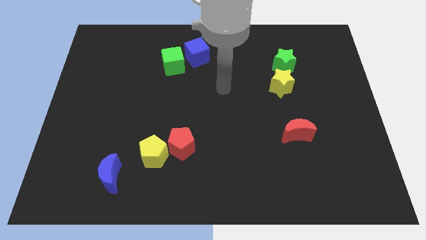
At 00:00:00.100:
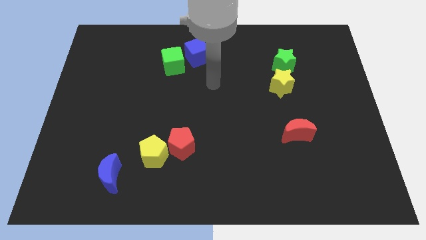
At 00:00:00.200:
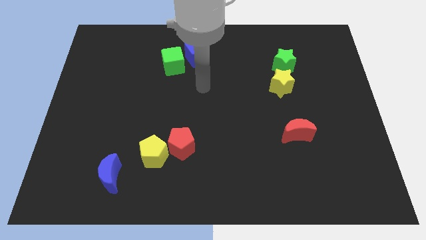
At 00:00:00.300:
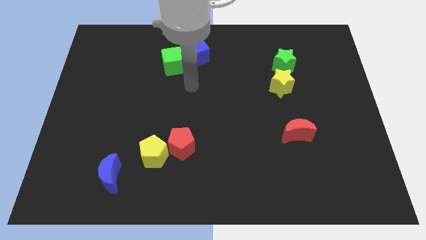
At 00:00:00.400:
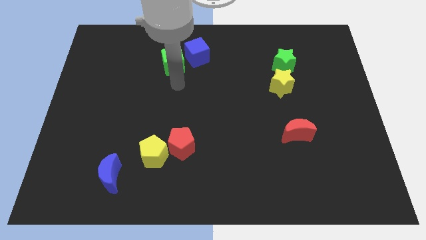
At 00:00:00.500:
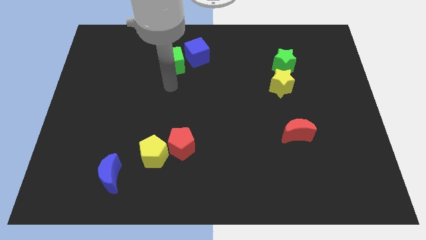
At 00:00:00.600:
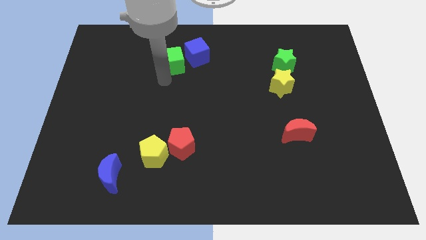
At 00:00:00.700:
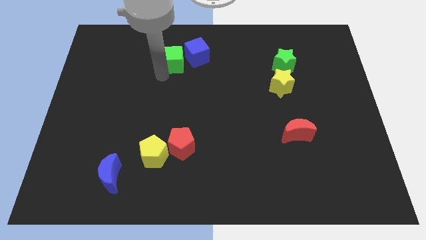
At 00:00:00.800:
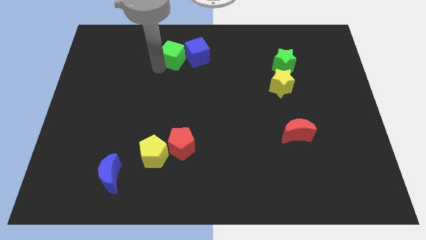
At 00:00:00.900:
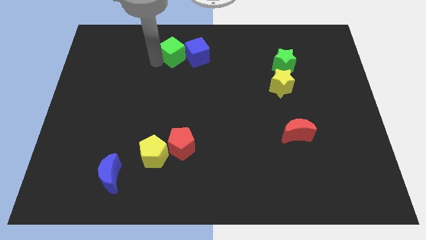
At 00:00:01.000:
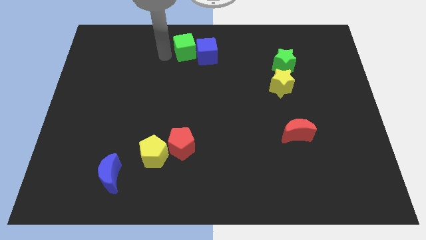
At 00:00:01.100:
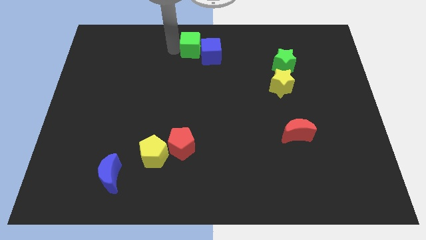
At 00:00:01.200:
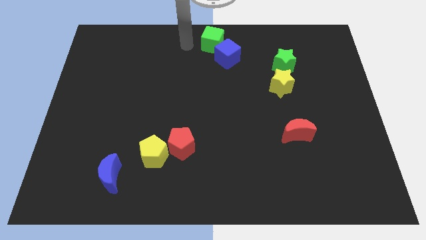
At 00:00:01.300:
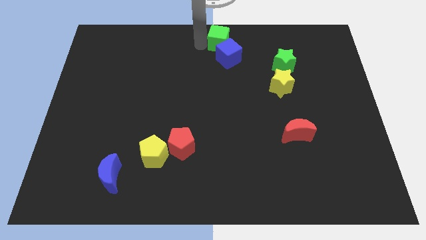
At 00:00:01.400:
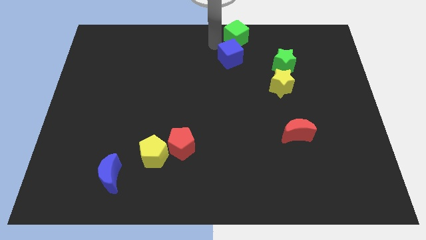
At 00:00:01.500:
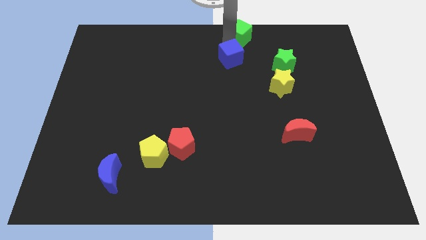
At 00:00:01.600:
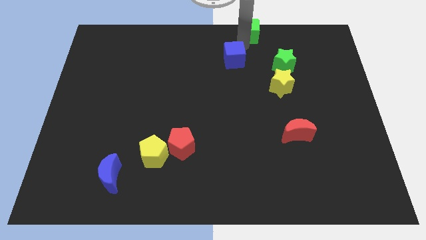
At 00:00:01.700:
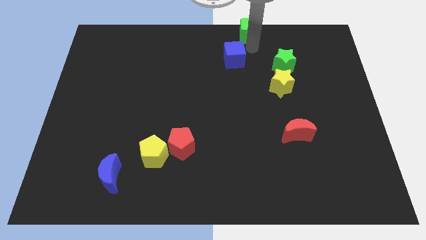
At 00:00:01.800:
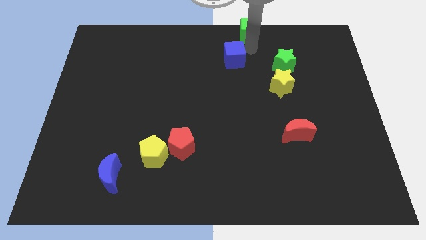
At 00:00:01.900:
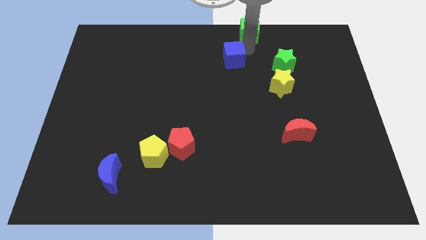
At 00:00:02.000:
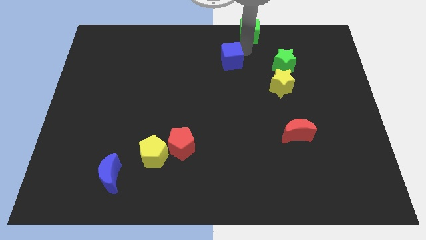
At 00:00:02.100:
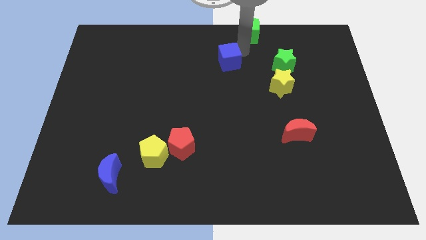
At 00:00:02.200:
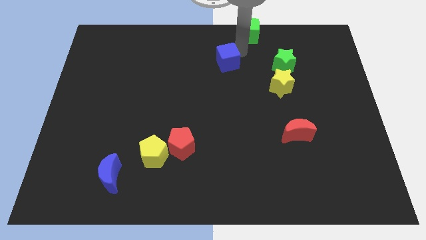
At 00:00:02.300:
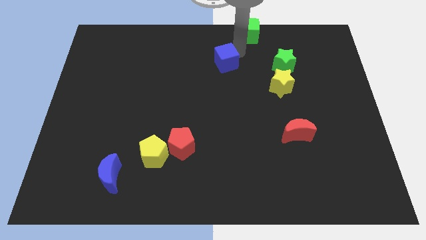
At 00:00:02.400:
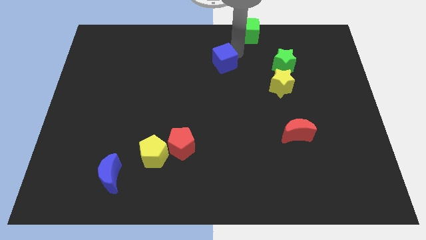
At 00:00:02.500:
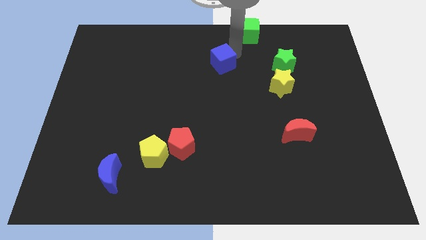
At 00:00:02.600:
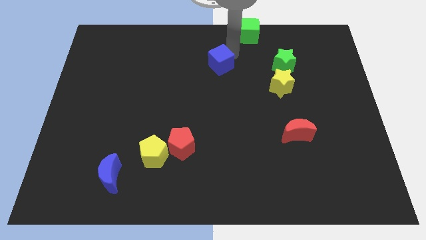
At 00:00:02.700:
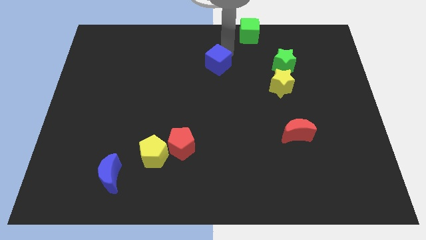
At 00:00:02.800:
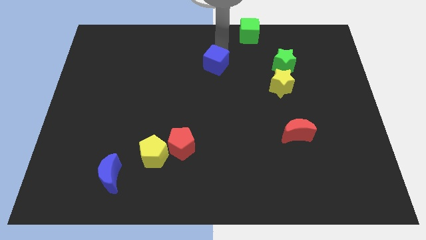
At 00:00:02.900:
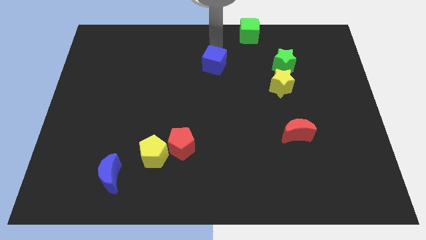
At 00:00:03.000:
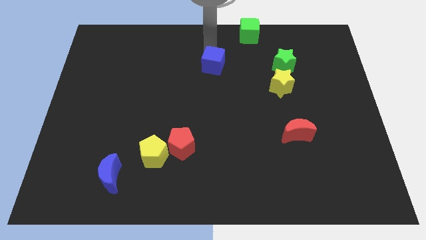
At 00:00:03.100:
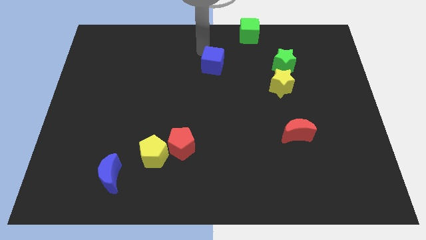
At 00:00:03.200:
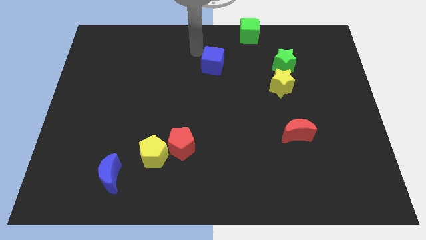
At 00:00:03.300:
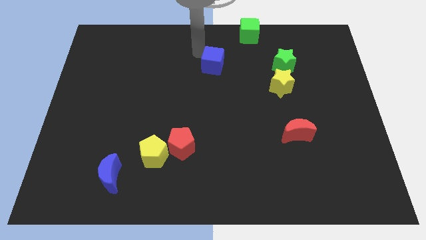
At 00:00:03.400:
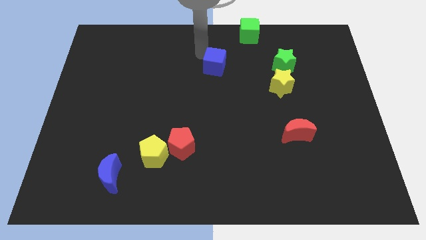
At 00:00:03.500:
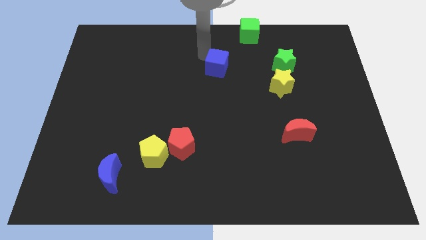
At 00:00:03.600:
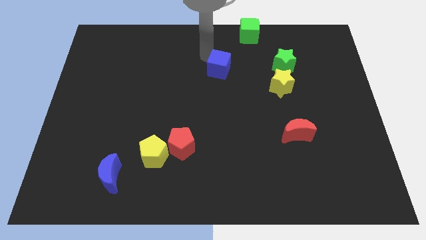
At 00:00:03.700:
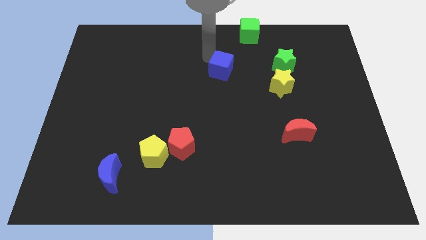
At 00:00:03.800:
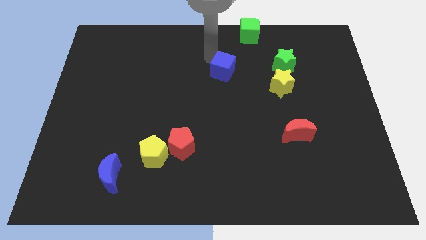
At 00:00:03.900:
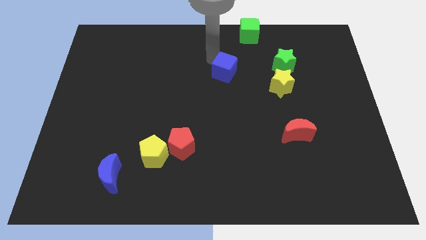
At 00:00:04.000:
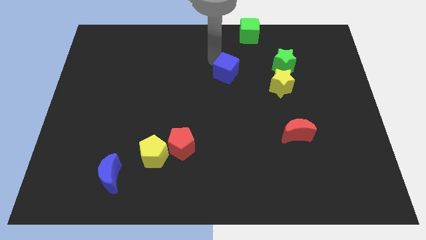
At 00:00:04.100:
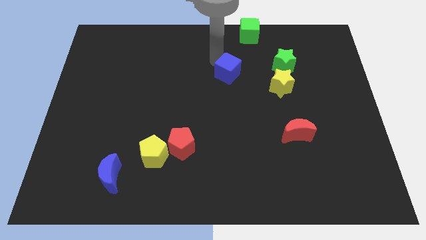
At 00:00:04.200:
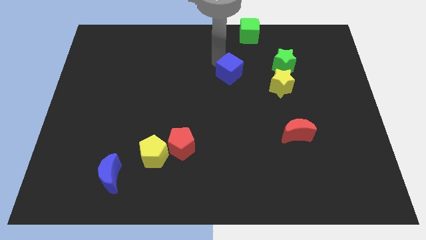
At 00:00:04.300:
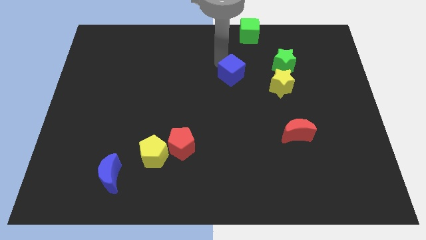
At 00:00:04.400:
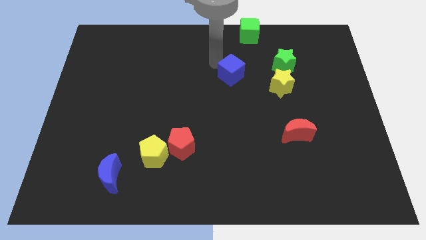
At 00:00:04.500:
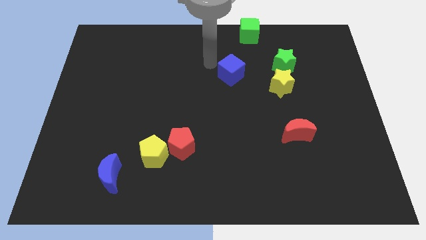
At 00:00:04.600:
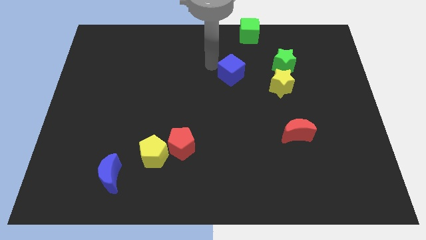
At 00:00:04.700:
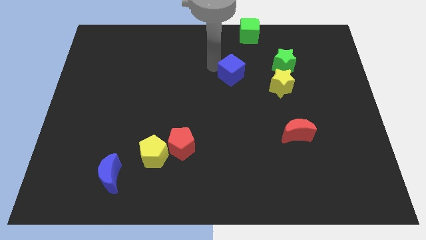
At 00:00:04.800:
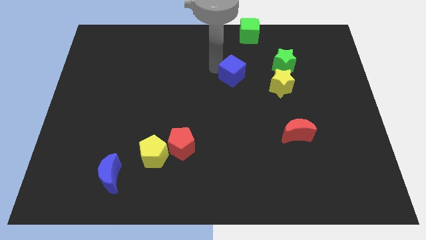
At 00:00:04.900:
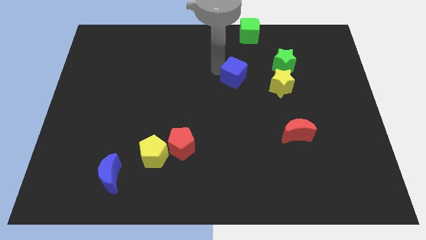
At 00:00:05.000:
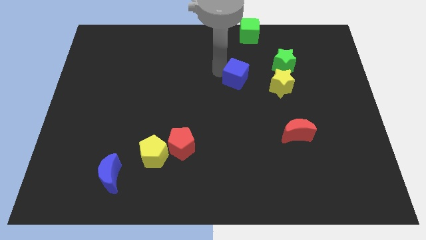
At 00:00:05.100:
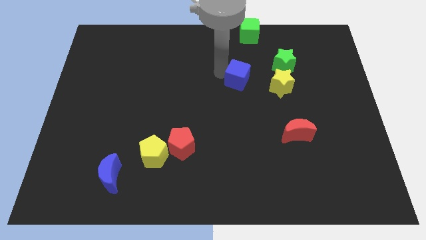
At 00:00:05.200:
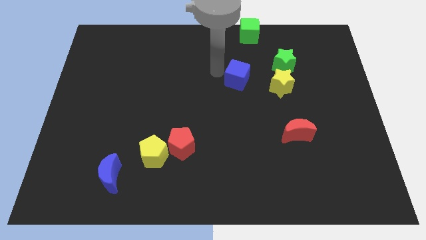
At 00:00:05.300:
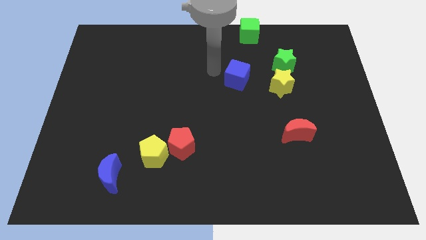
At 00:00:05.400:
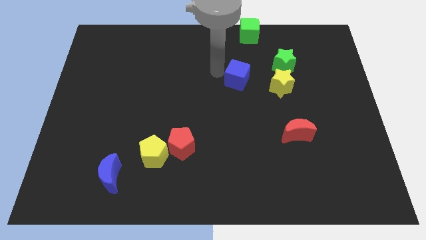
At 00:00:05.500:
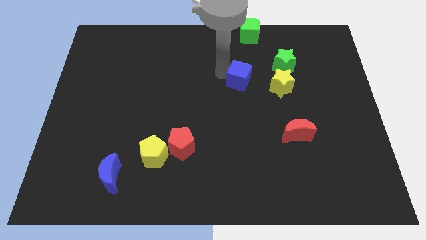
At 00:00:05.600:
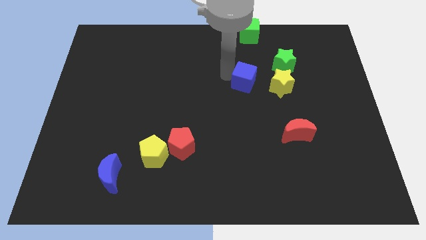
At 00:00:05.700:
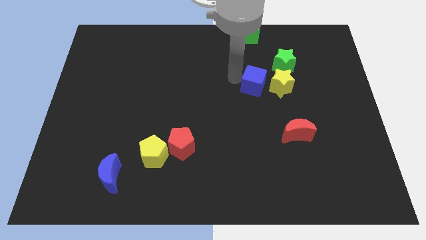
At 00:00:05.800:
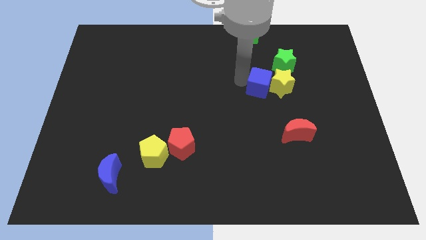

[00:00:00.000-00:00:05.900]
put the blue cube to the yellow star

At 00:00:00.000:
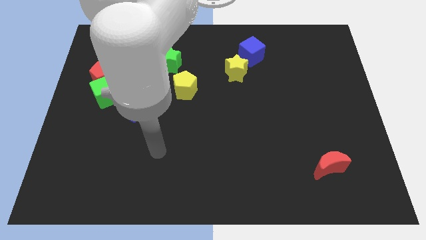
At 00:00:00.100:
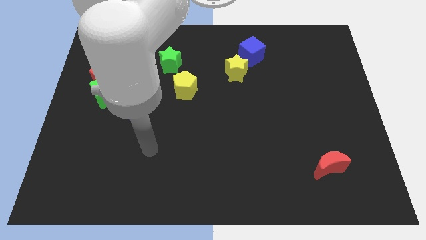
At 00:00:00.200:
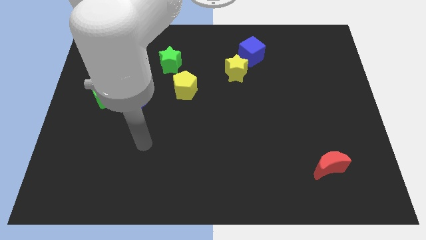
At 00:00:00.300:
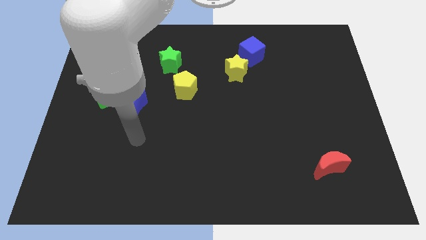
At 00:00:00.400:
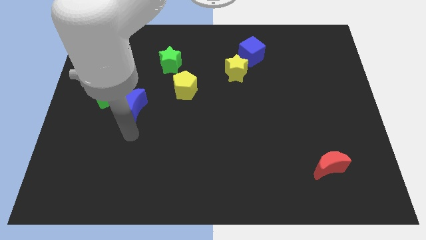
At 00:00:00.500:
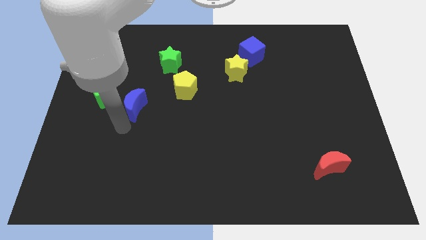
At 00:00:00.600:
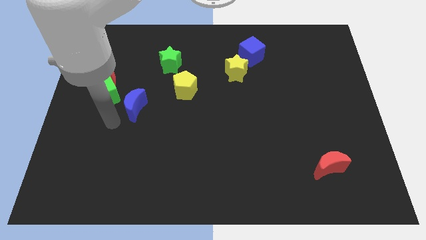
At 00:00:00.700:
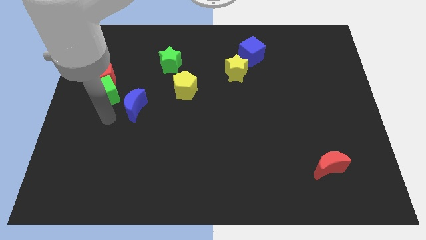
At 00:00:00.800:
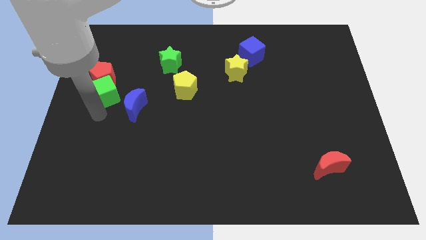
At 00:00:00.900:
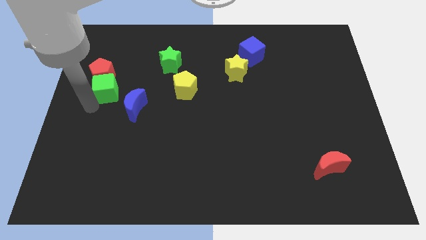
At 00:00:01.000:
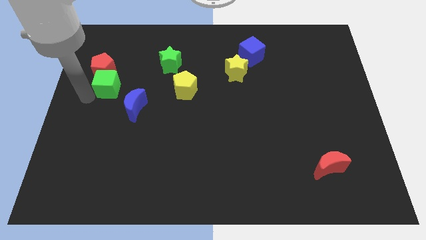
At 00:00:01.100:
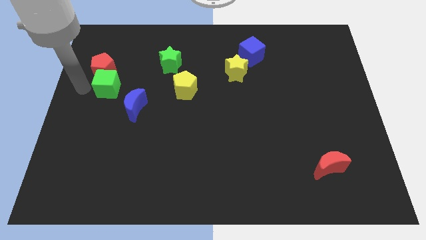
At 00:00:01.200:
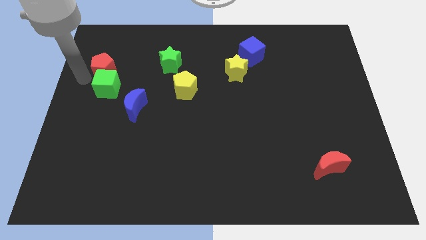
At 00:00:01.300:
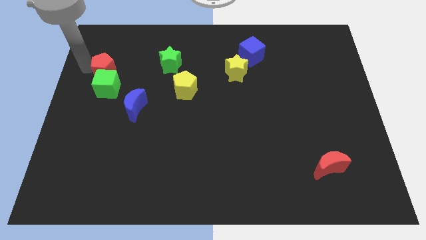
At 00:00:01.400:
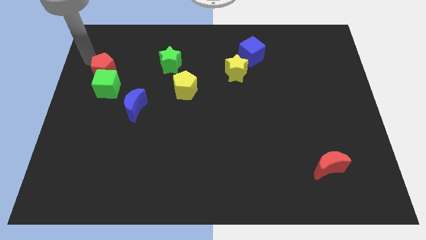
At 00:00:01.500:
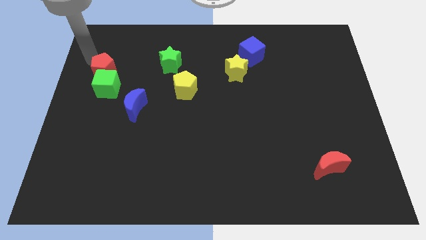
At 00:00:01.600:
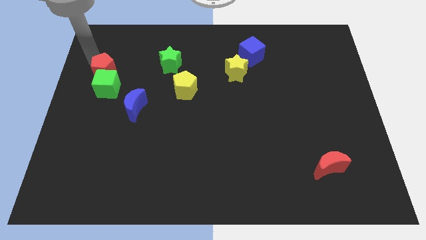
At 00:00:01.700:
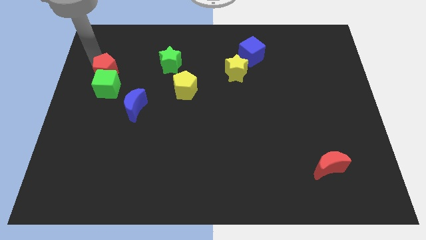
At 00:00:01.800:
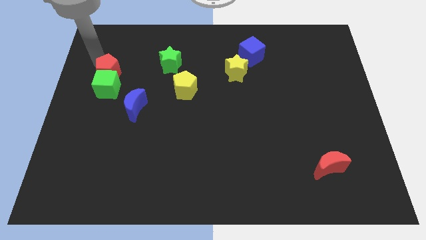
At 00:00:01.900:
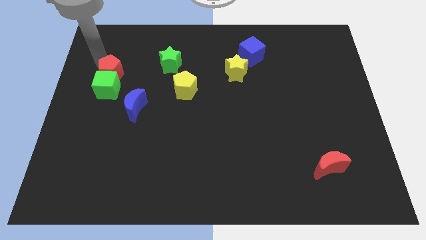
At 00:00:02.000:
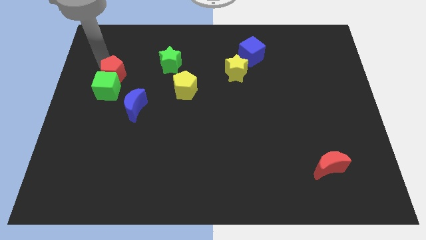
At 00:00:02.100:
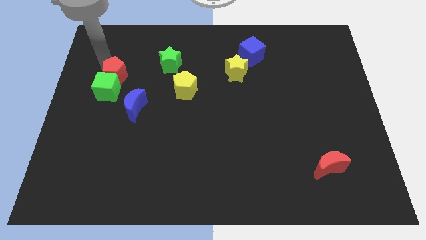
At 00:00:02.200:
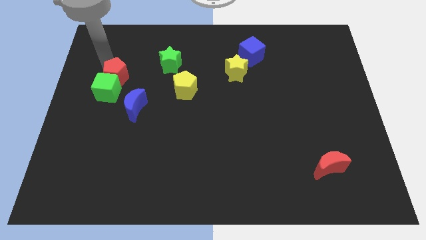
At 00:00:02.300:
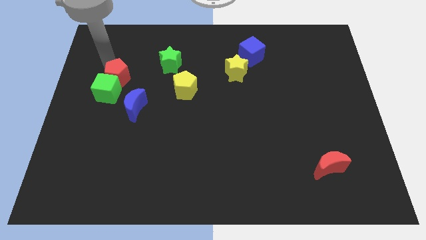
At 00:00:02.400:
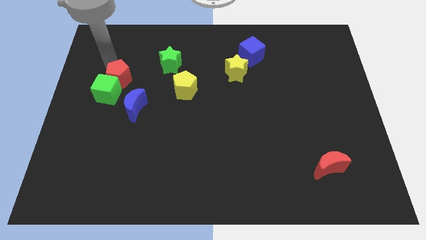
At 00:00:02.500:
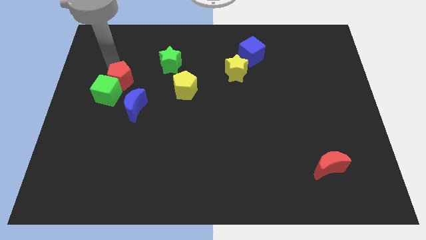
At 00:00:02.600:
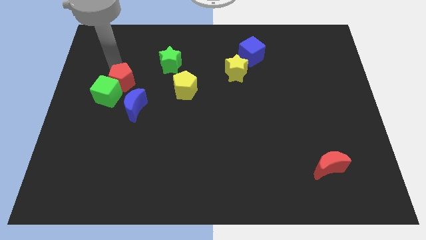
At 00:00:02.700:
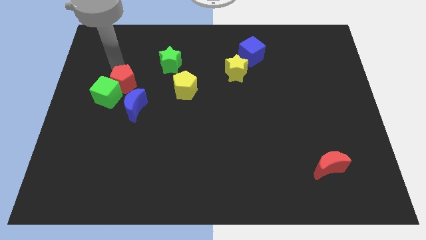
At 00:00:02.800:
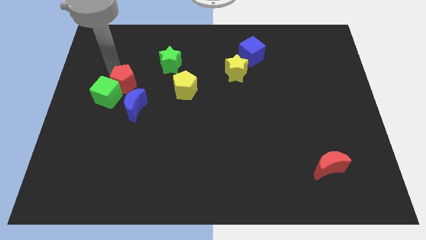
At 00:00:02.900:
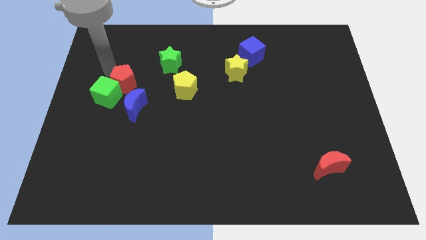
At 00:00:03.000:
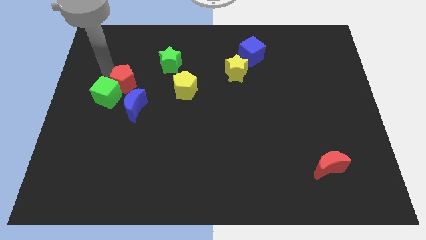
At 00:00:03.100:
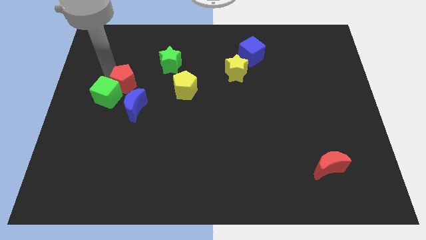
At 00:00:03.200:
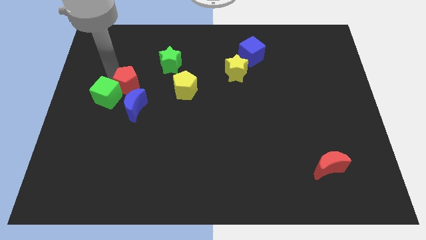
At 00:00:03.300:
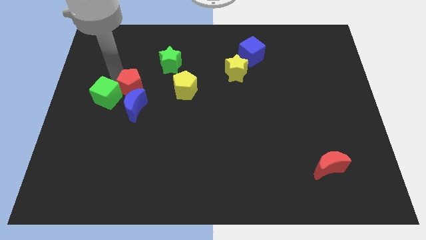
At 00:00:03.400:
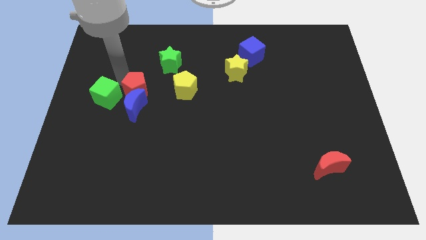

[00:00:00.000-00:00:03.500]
slide the red pentagon to the blue moon
